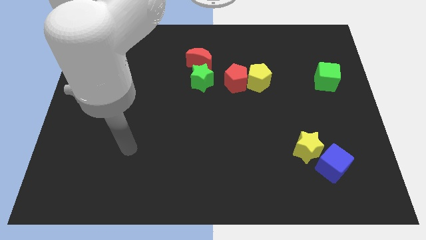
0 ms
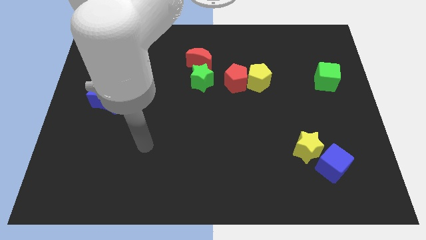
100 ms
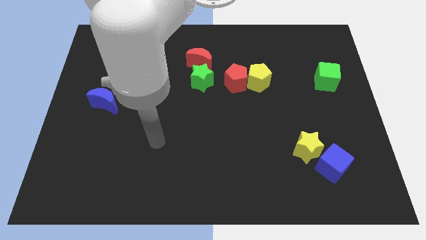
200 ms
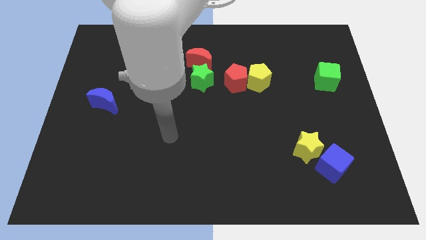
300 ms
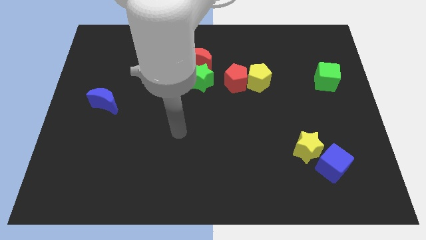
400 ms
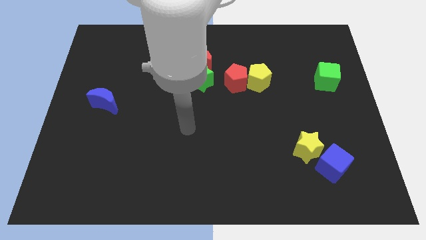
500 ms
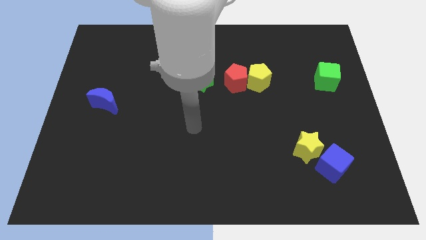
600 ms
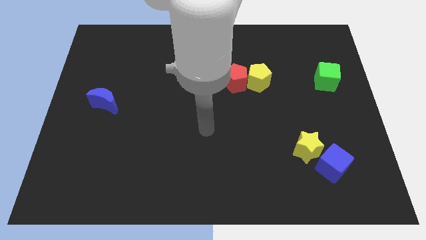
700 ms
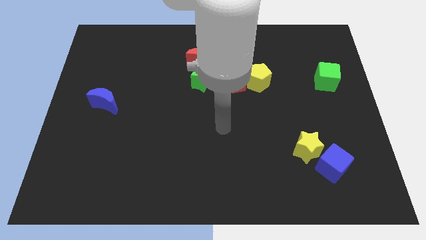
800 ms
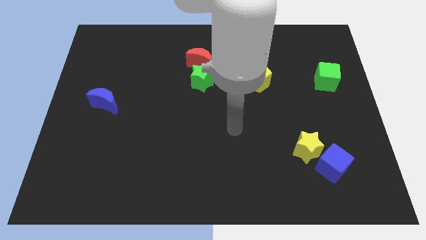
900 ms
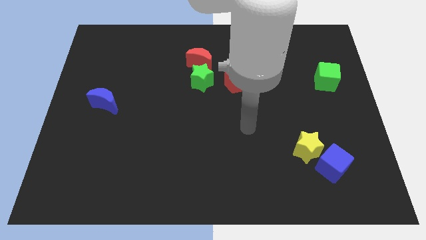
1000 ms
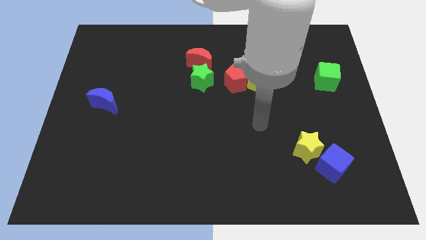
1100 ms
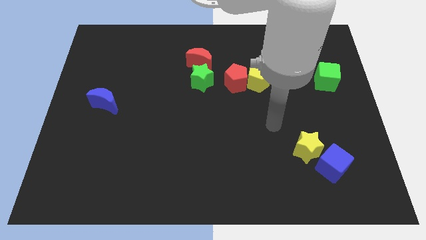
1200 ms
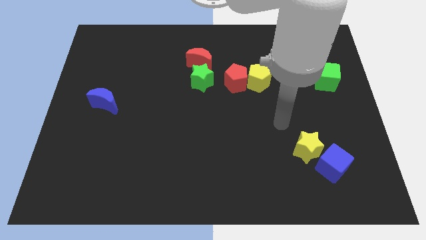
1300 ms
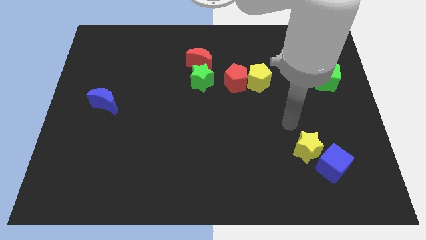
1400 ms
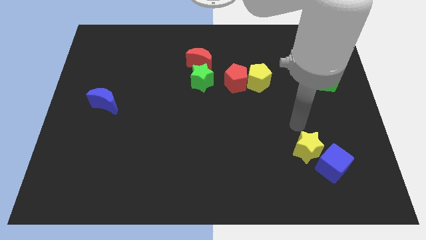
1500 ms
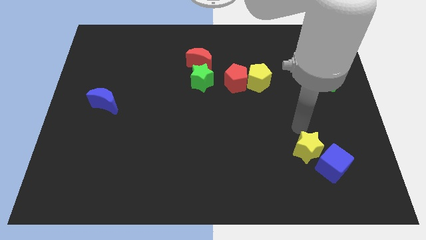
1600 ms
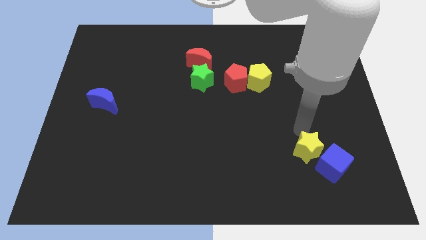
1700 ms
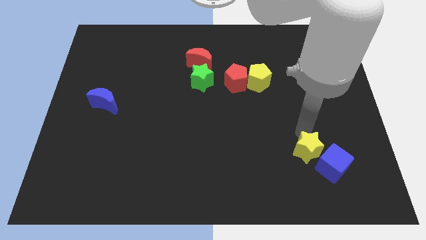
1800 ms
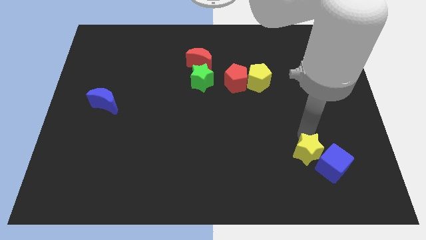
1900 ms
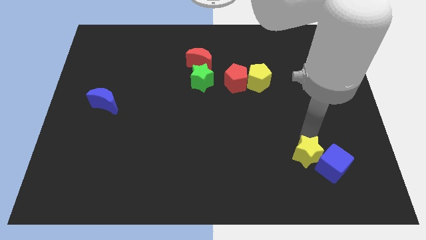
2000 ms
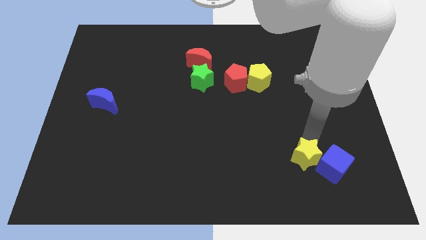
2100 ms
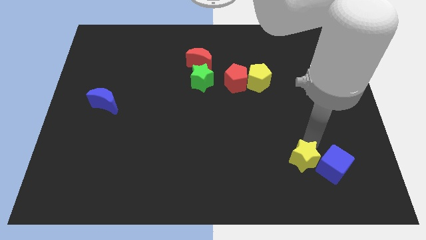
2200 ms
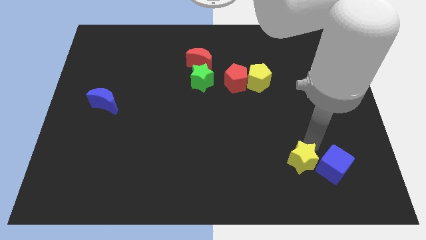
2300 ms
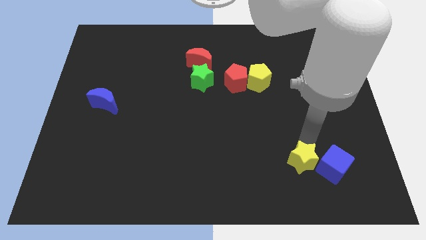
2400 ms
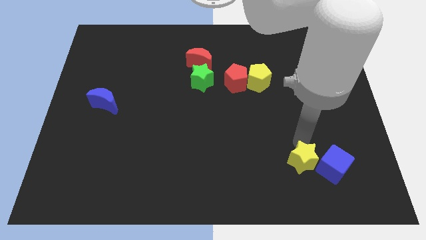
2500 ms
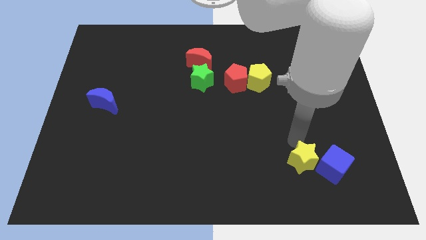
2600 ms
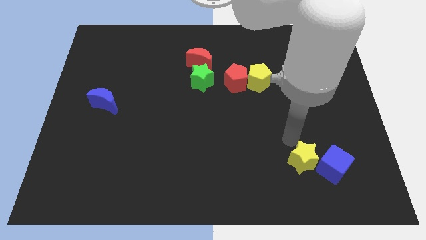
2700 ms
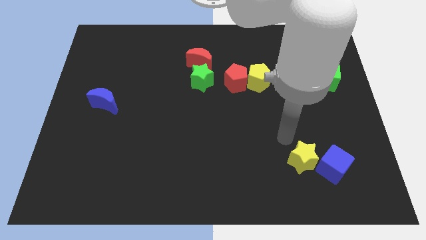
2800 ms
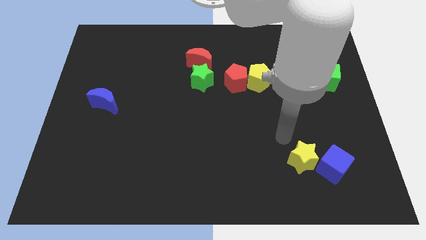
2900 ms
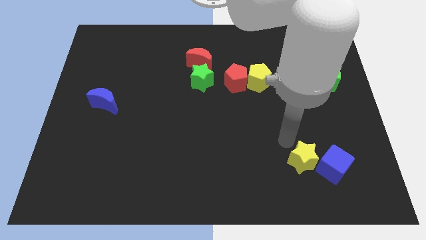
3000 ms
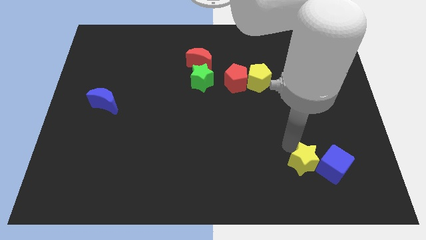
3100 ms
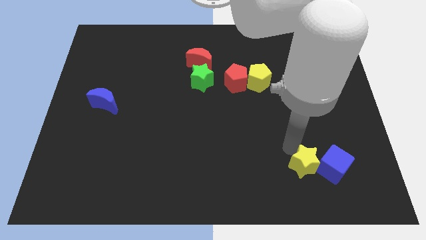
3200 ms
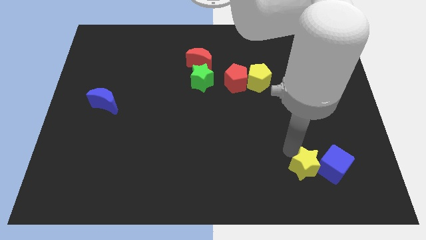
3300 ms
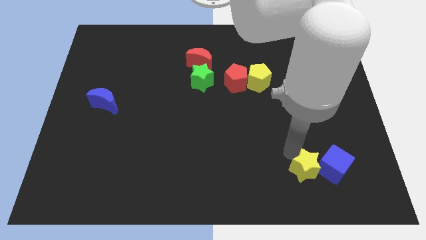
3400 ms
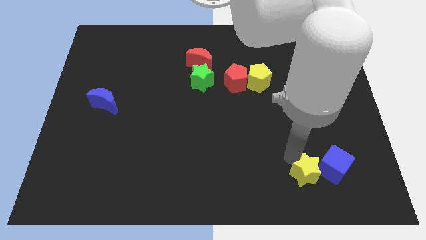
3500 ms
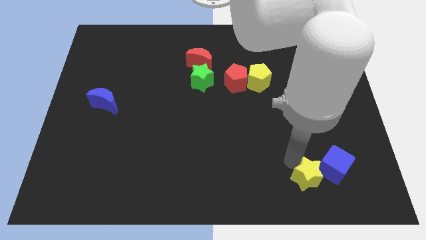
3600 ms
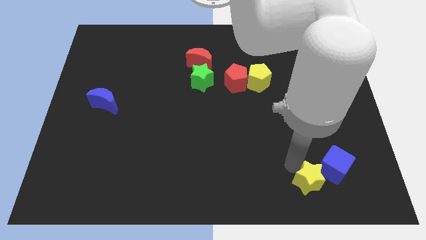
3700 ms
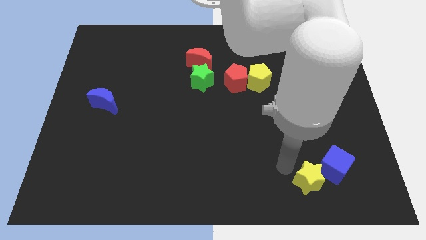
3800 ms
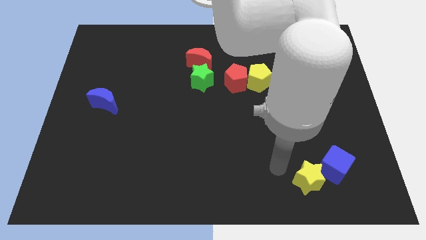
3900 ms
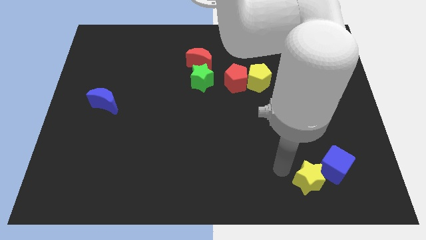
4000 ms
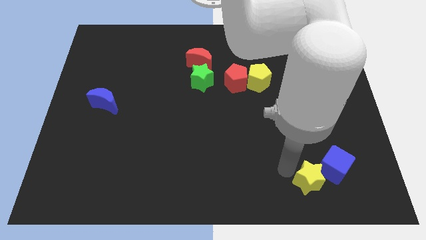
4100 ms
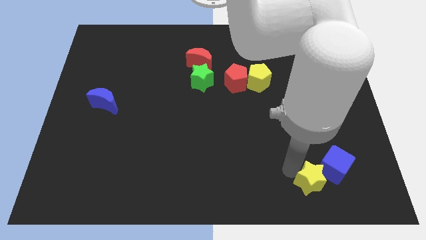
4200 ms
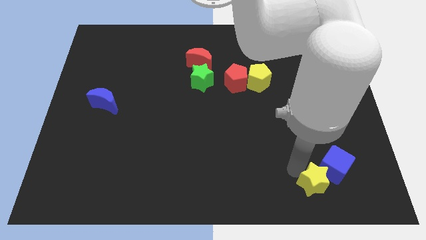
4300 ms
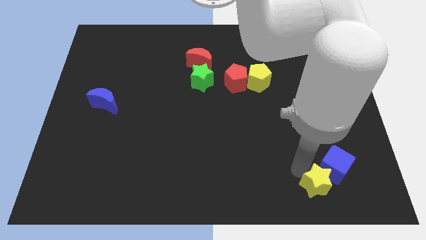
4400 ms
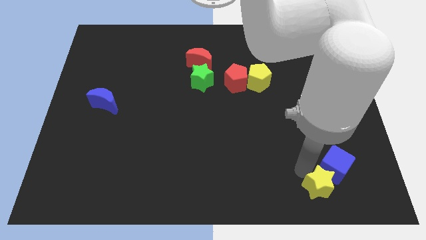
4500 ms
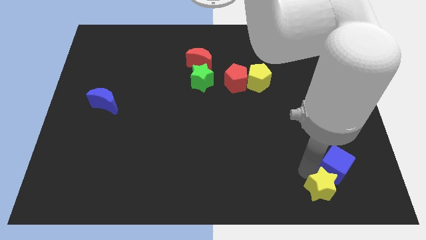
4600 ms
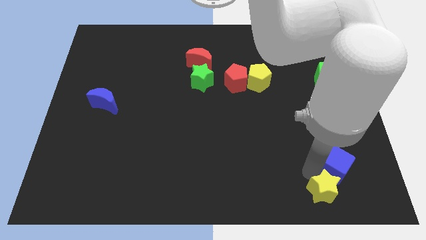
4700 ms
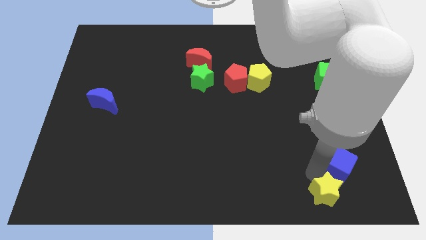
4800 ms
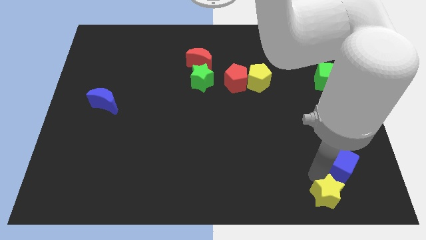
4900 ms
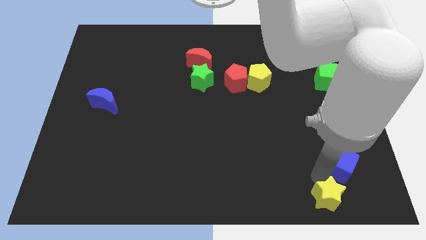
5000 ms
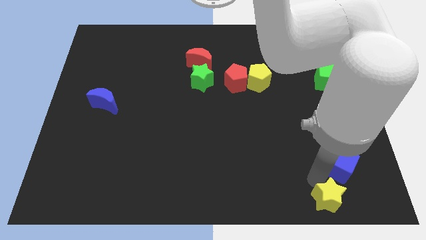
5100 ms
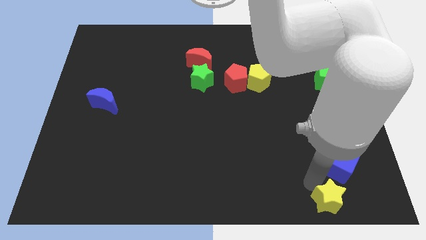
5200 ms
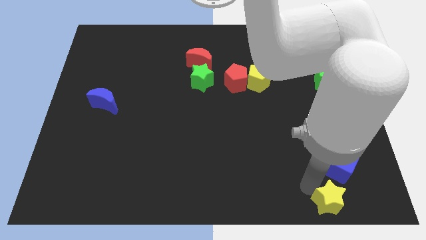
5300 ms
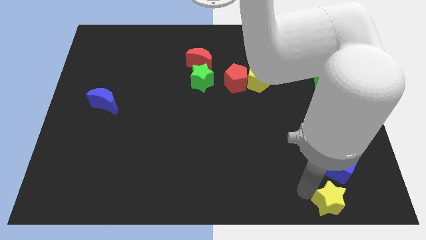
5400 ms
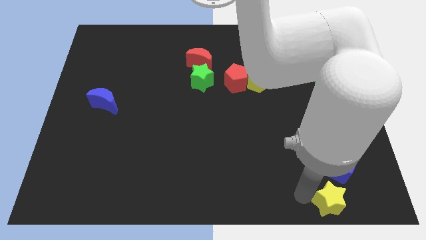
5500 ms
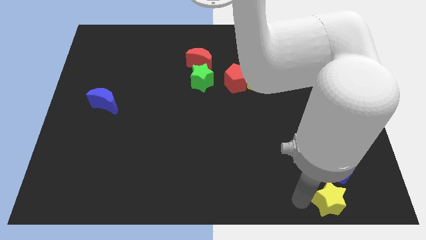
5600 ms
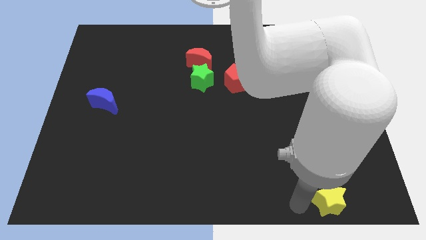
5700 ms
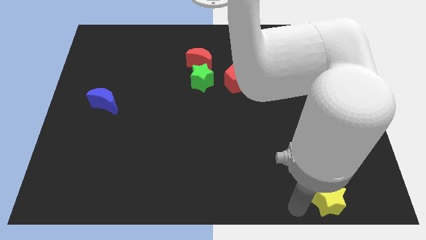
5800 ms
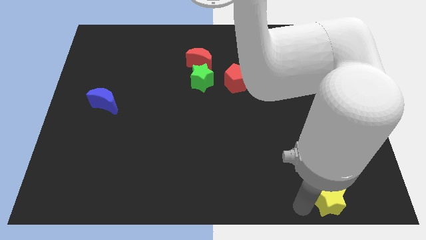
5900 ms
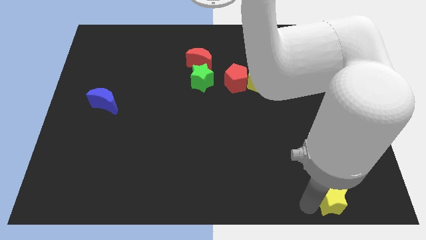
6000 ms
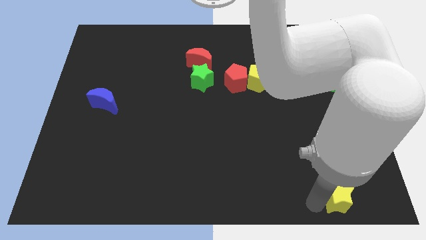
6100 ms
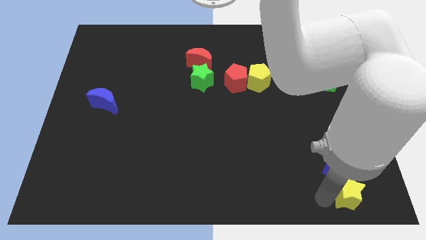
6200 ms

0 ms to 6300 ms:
slide the yellow star to the bottom right
